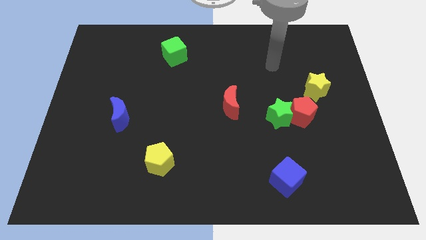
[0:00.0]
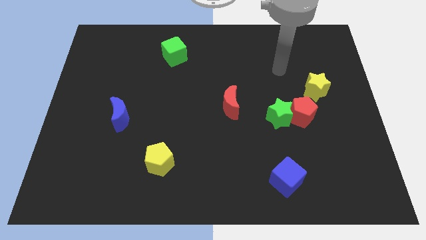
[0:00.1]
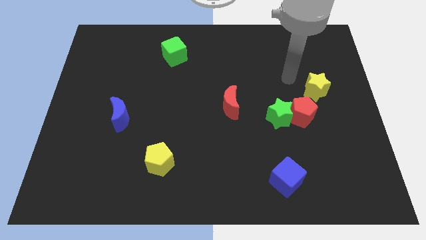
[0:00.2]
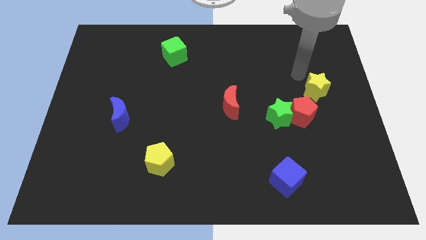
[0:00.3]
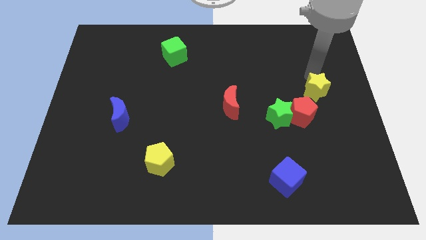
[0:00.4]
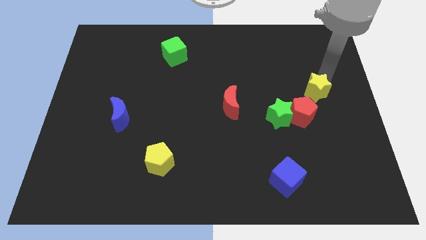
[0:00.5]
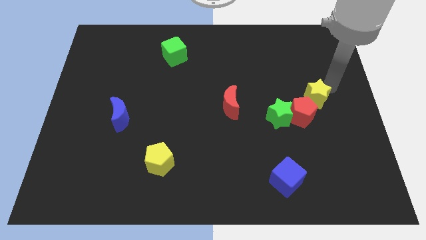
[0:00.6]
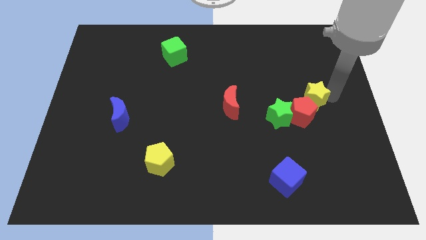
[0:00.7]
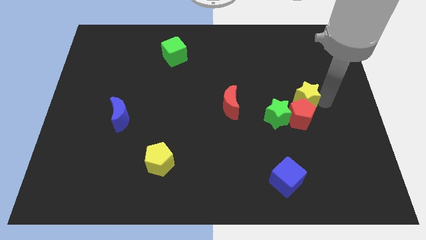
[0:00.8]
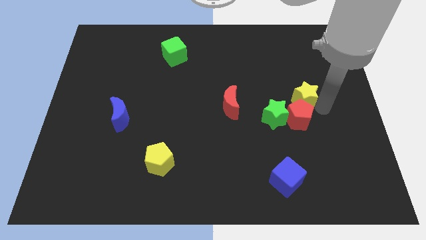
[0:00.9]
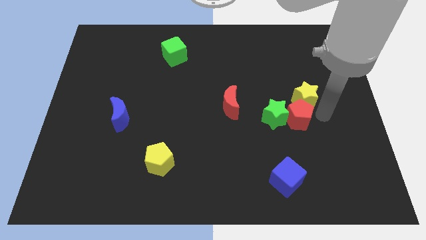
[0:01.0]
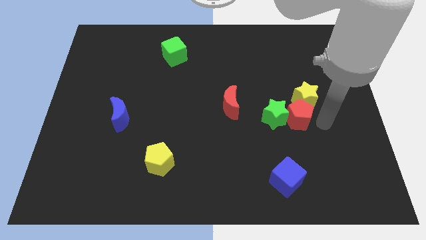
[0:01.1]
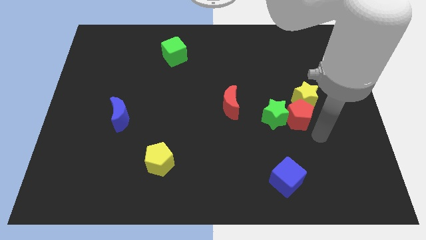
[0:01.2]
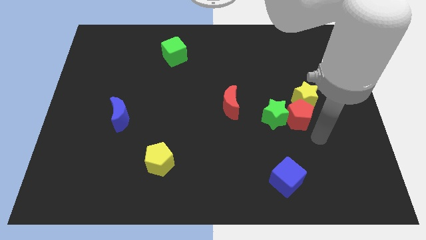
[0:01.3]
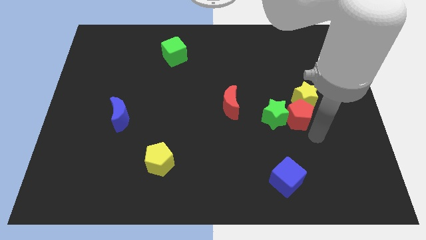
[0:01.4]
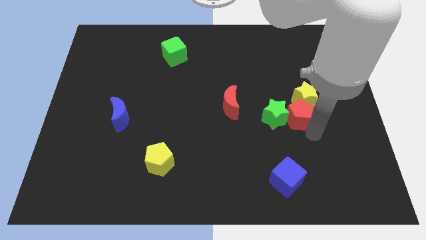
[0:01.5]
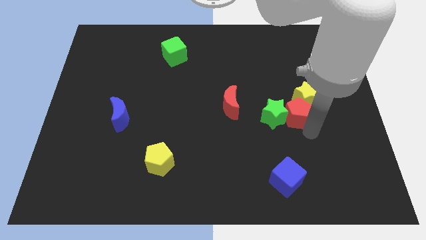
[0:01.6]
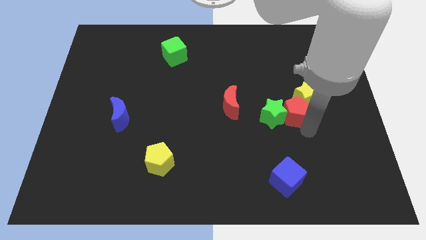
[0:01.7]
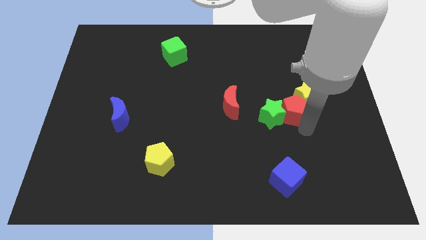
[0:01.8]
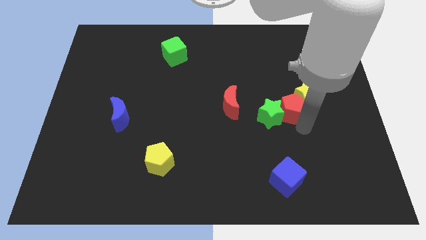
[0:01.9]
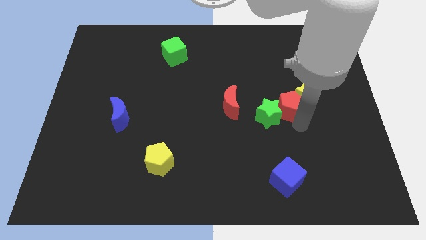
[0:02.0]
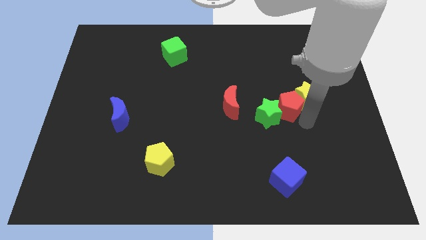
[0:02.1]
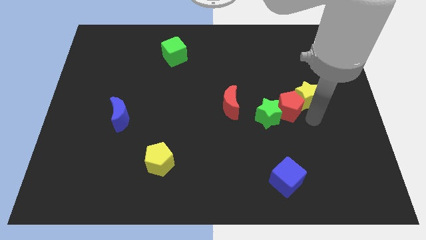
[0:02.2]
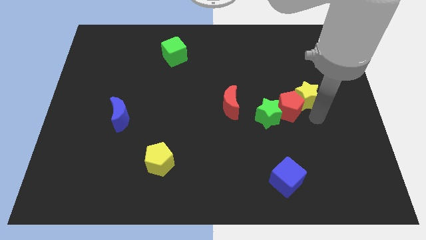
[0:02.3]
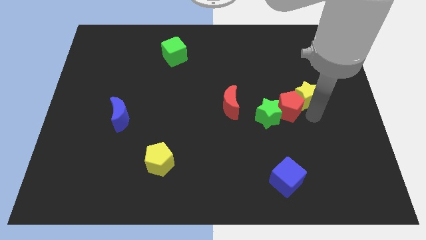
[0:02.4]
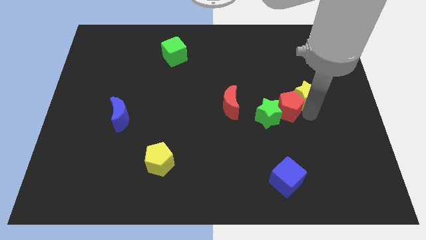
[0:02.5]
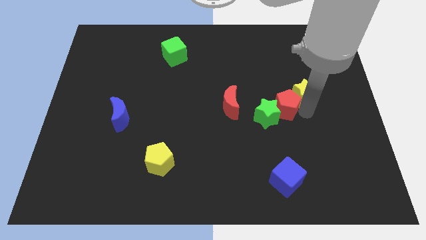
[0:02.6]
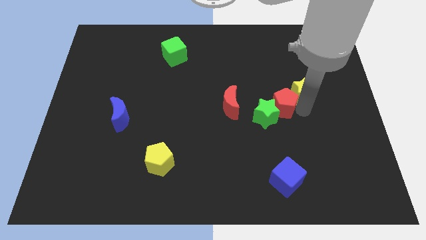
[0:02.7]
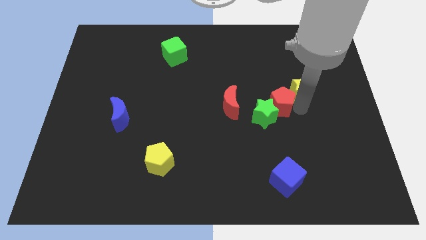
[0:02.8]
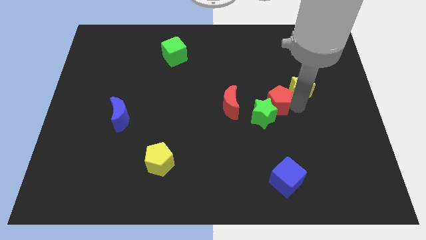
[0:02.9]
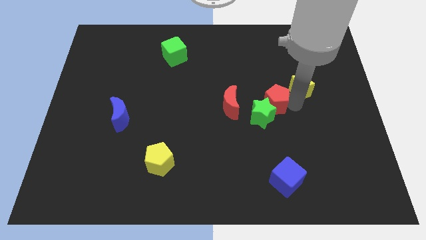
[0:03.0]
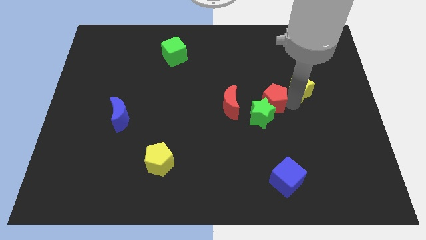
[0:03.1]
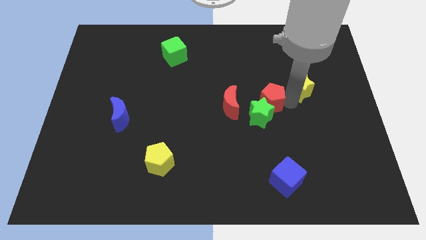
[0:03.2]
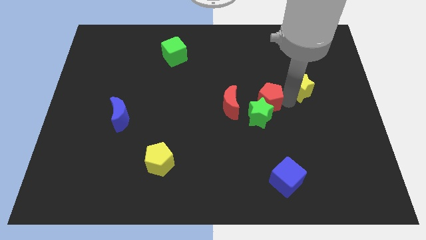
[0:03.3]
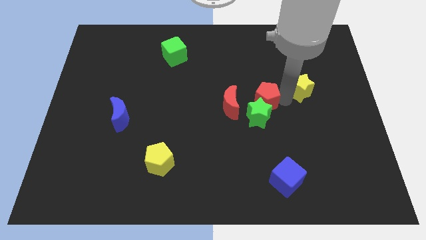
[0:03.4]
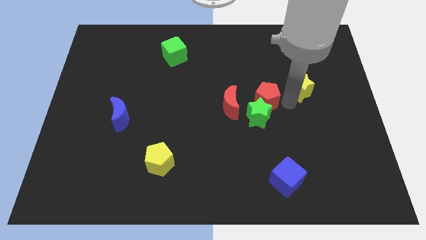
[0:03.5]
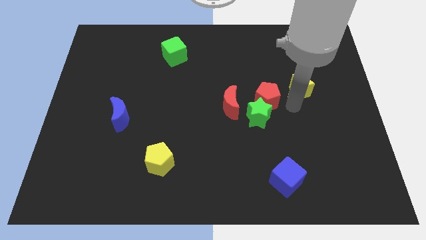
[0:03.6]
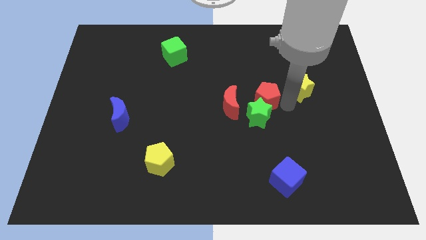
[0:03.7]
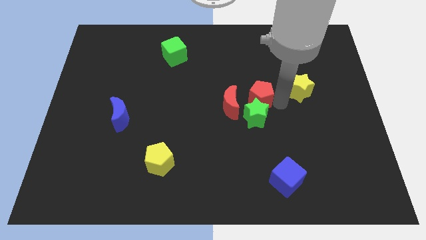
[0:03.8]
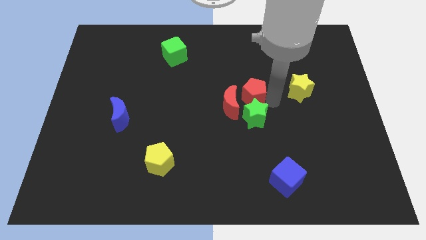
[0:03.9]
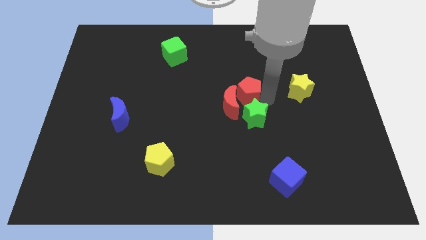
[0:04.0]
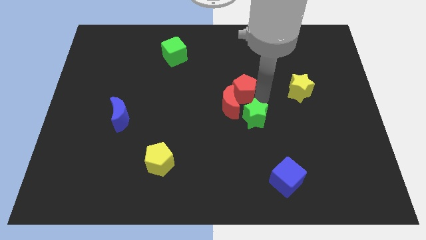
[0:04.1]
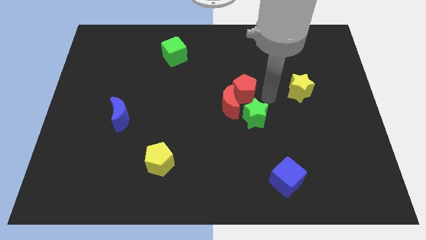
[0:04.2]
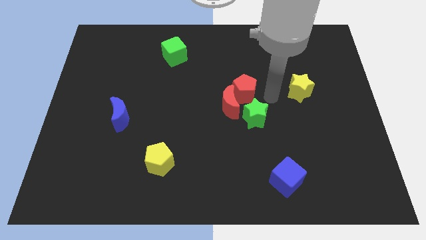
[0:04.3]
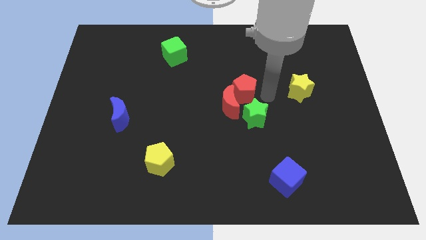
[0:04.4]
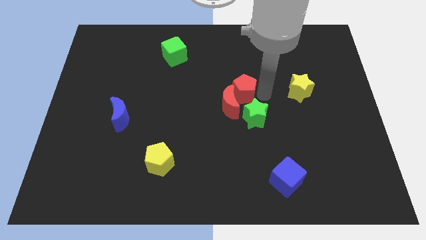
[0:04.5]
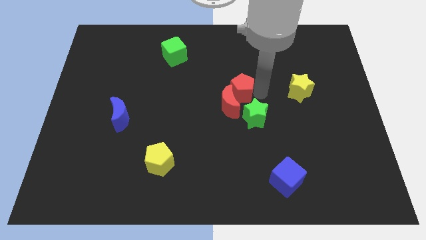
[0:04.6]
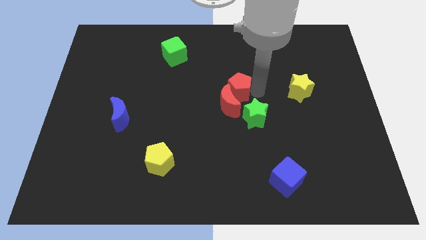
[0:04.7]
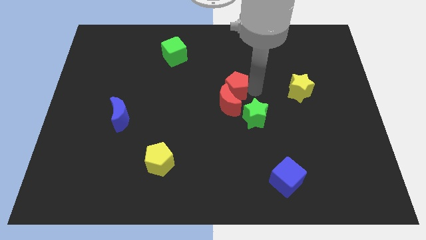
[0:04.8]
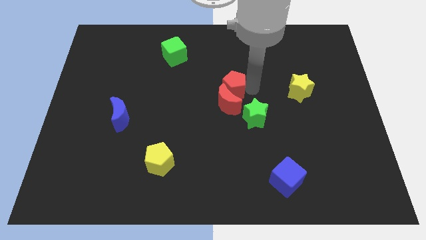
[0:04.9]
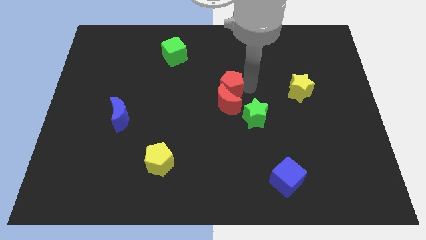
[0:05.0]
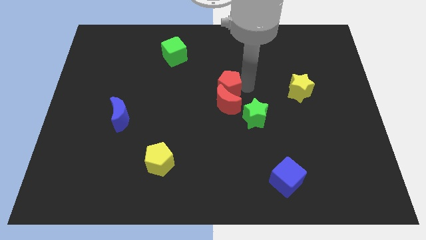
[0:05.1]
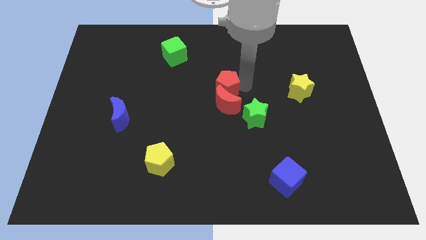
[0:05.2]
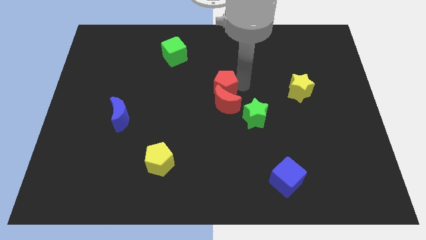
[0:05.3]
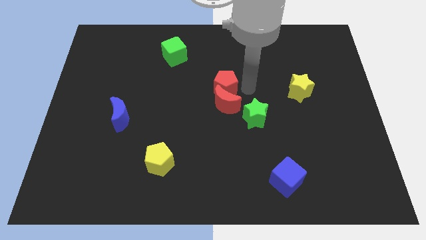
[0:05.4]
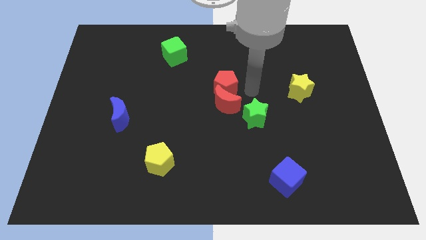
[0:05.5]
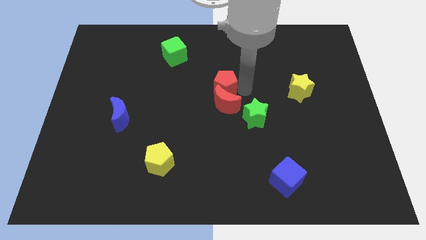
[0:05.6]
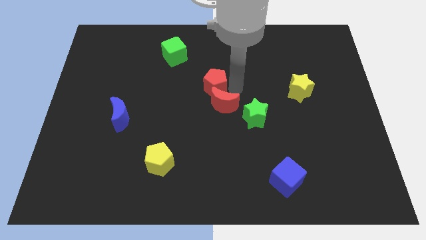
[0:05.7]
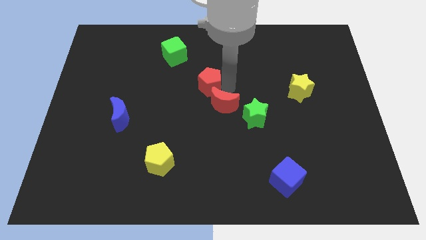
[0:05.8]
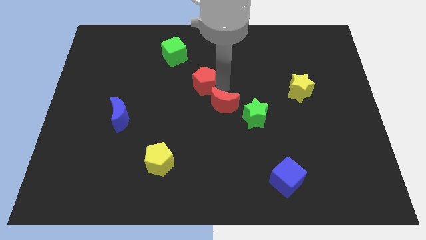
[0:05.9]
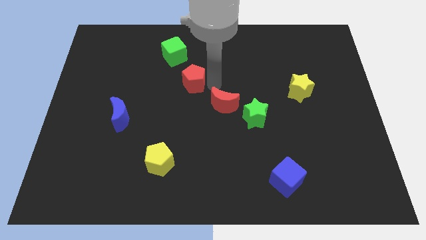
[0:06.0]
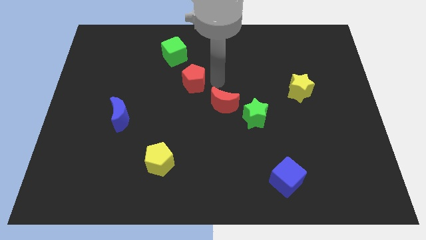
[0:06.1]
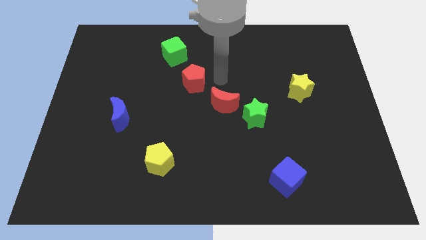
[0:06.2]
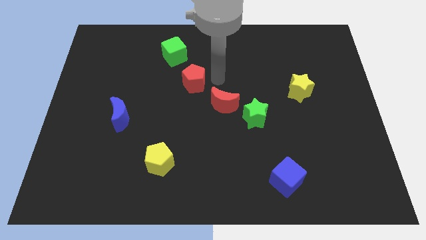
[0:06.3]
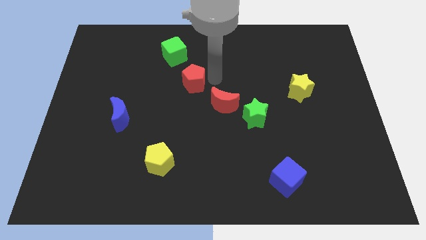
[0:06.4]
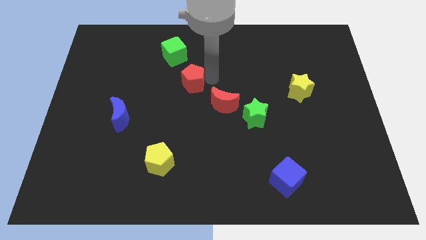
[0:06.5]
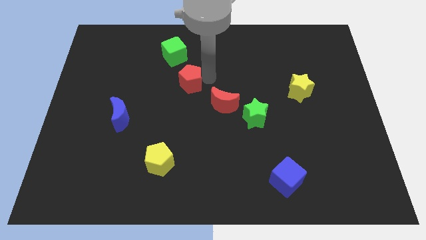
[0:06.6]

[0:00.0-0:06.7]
put the red pentagon to the bottom of the green cube
